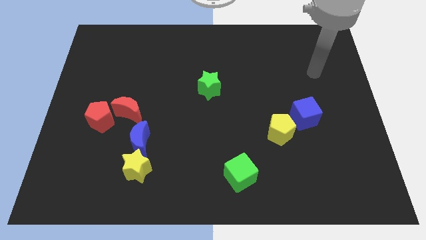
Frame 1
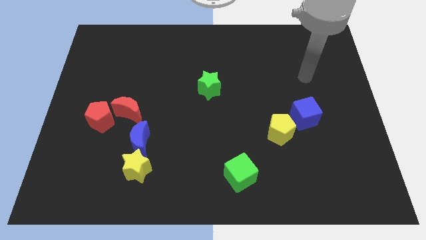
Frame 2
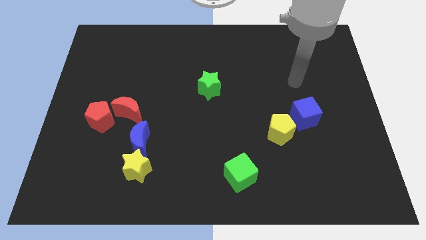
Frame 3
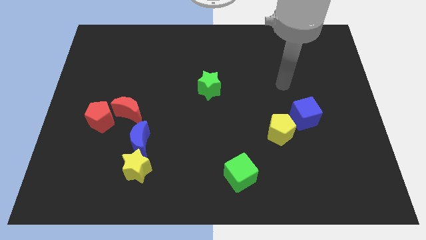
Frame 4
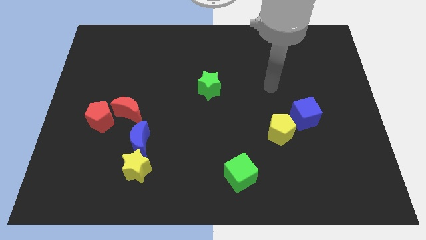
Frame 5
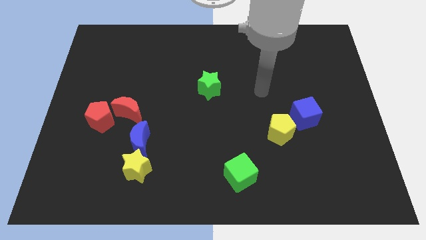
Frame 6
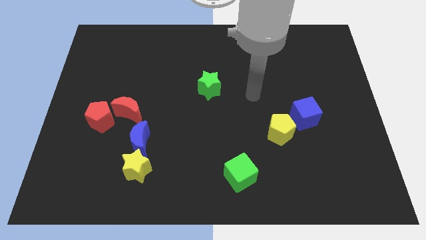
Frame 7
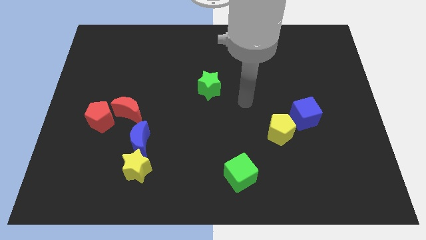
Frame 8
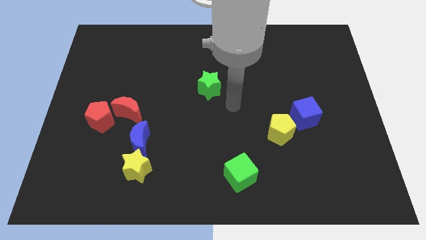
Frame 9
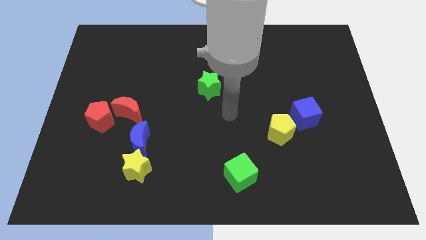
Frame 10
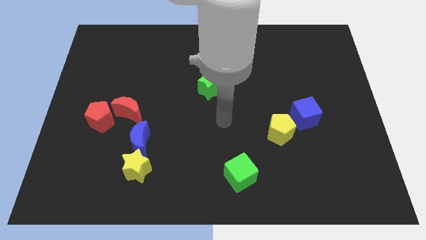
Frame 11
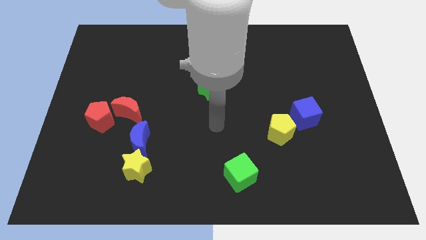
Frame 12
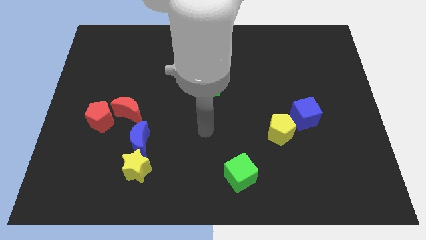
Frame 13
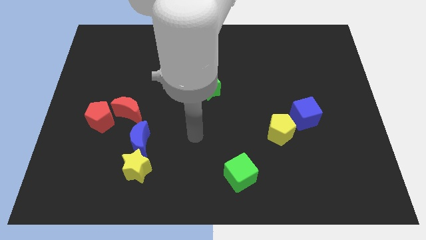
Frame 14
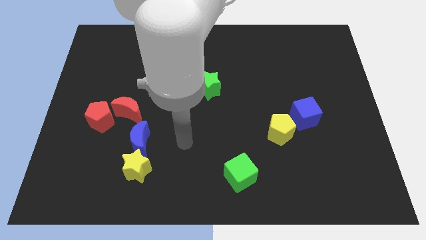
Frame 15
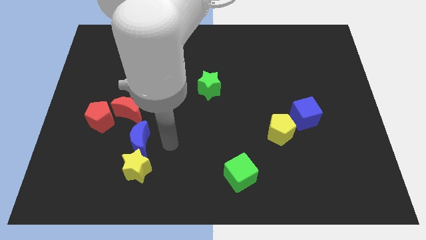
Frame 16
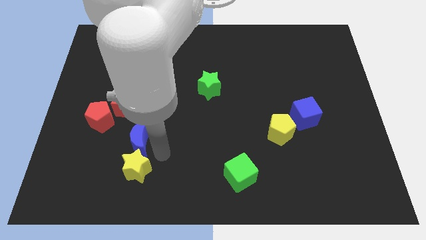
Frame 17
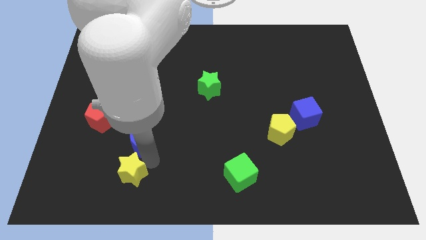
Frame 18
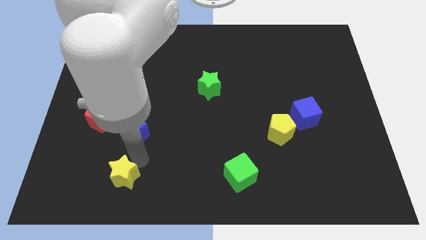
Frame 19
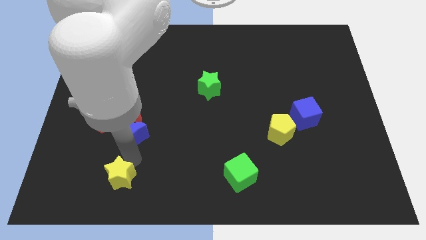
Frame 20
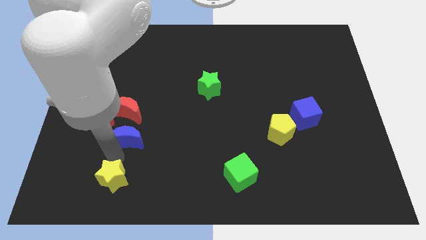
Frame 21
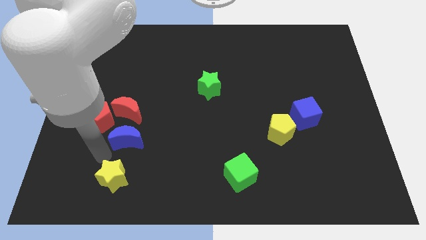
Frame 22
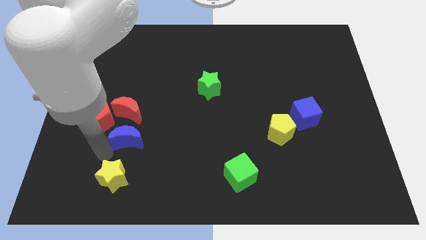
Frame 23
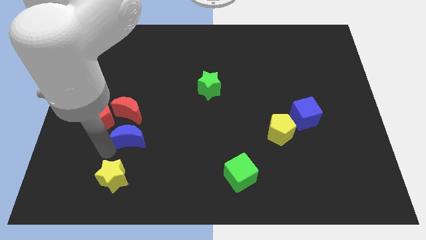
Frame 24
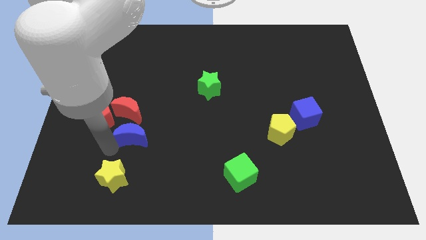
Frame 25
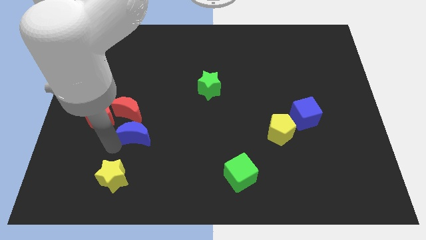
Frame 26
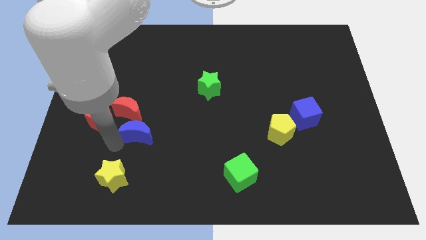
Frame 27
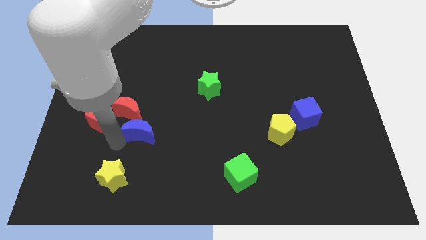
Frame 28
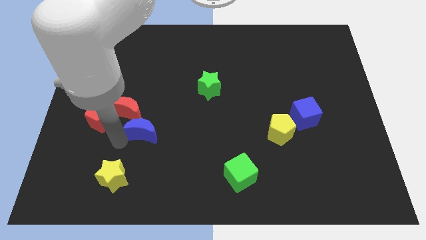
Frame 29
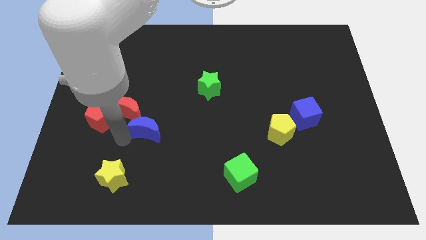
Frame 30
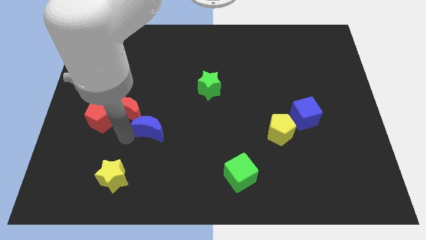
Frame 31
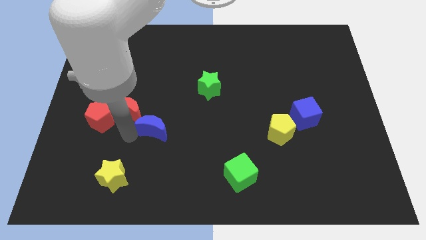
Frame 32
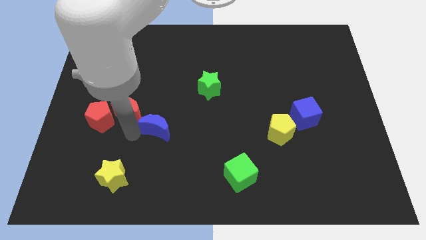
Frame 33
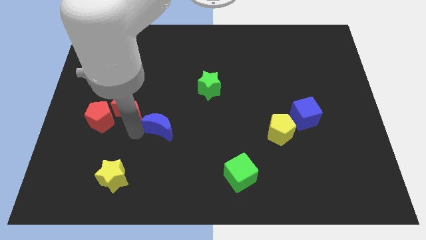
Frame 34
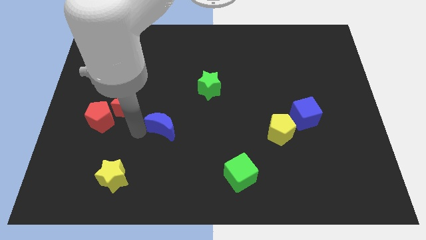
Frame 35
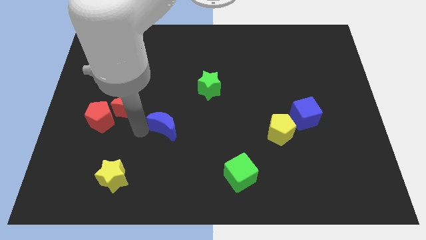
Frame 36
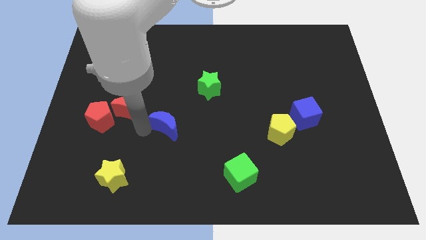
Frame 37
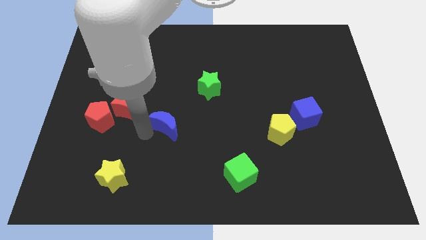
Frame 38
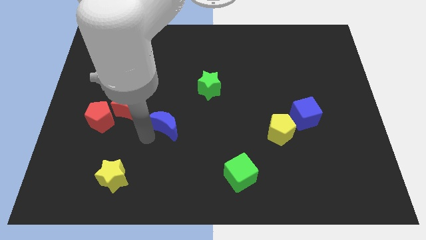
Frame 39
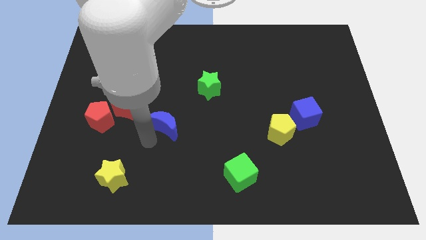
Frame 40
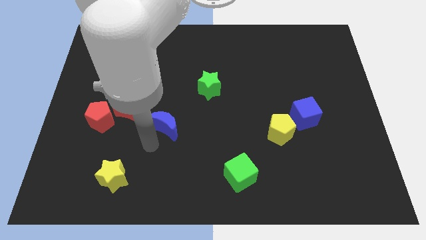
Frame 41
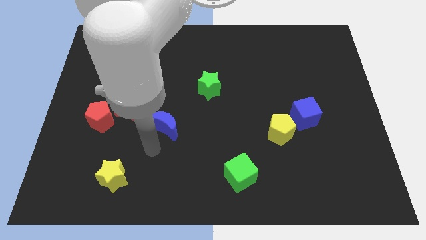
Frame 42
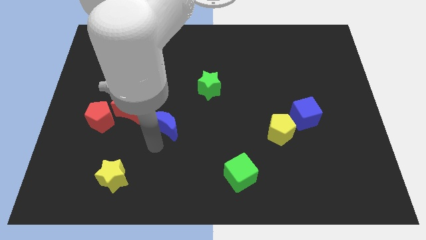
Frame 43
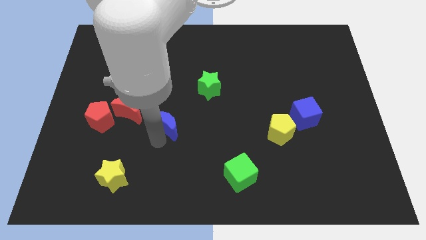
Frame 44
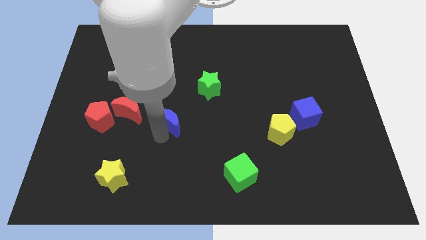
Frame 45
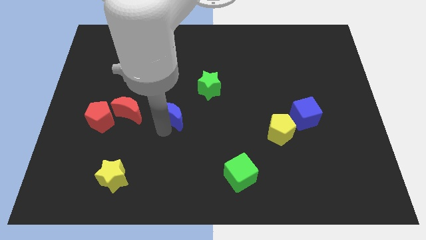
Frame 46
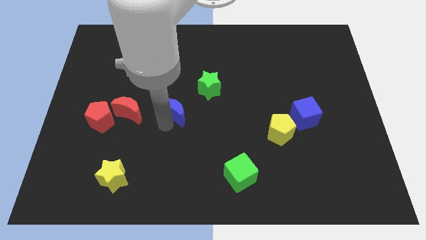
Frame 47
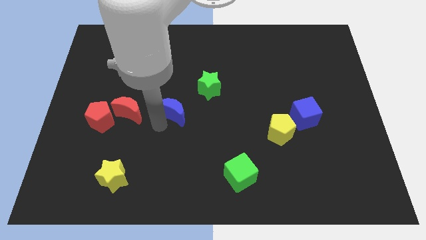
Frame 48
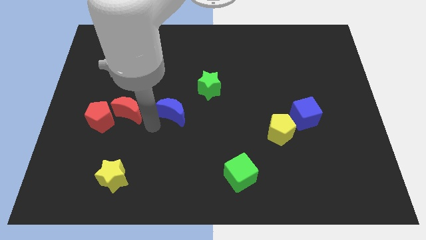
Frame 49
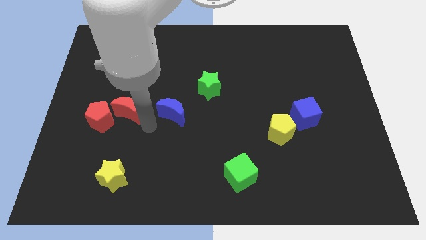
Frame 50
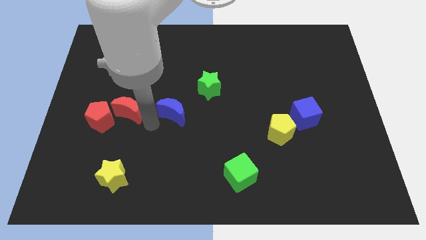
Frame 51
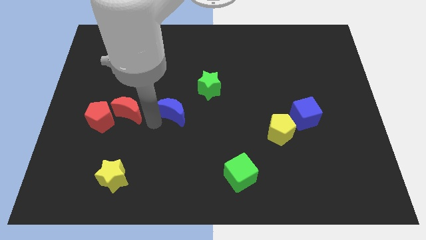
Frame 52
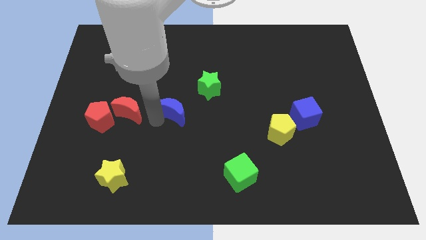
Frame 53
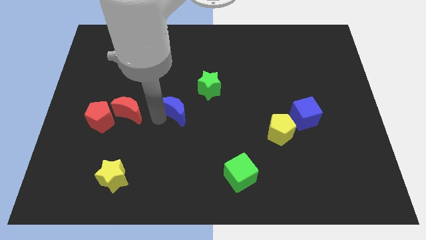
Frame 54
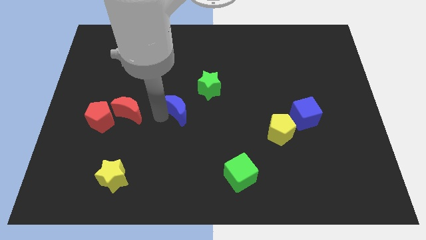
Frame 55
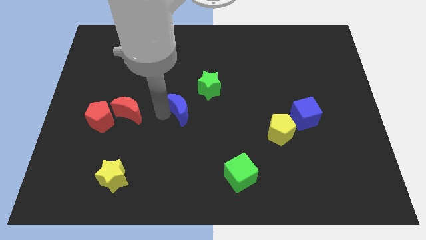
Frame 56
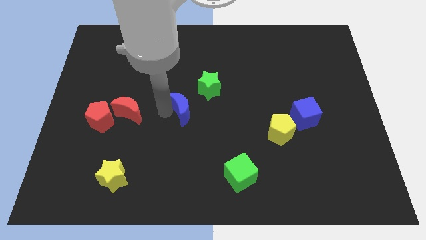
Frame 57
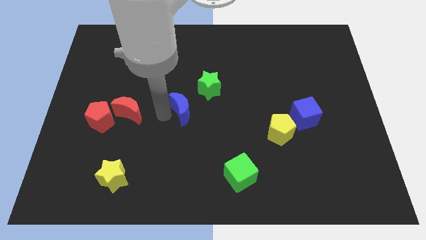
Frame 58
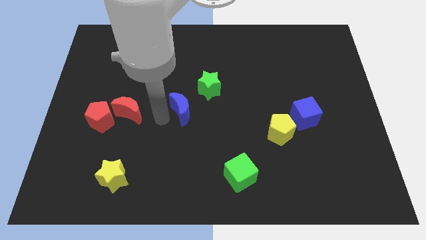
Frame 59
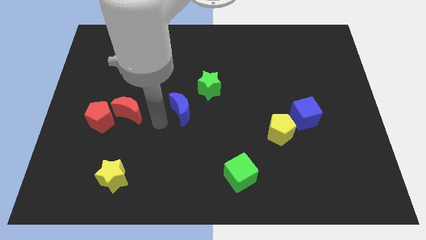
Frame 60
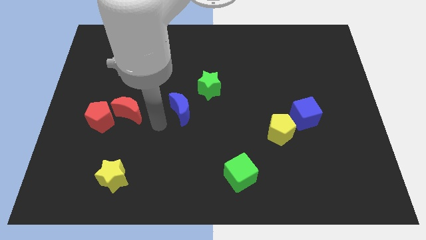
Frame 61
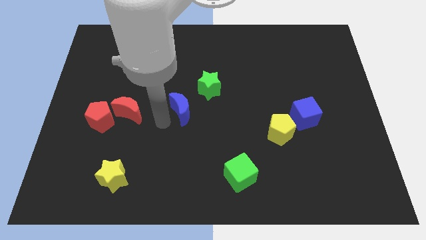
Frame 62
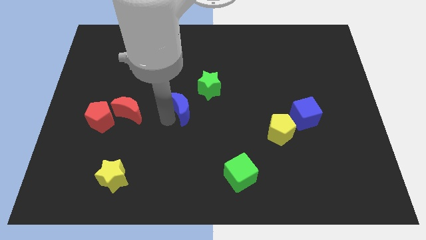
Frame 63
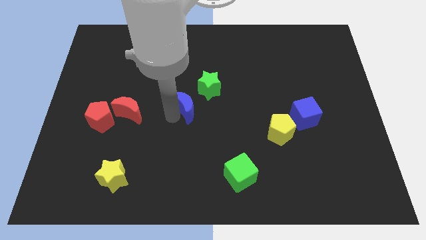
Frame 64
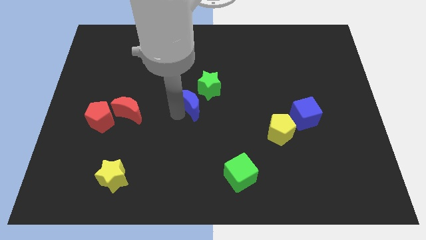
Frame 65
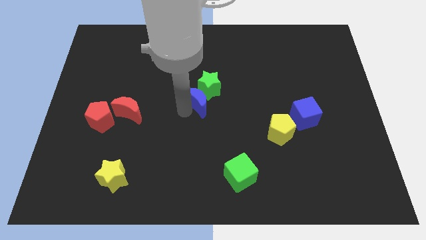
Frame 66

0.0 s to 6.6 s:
push the blue moon close to the green star

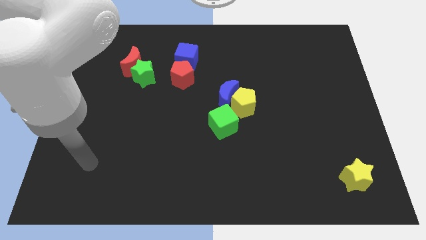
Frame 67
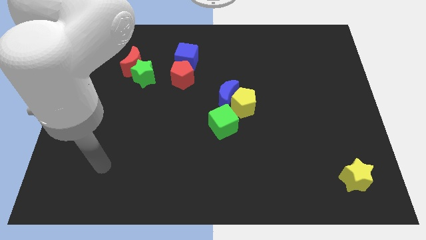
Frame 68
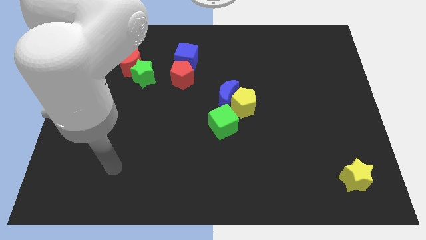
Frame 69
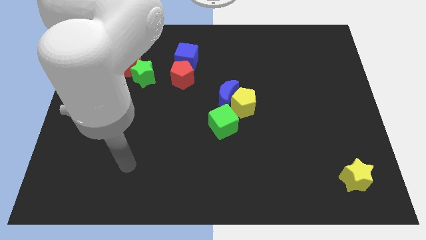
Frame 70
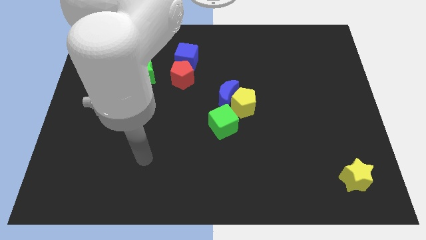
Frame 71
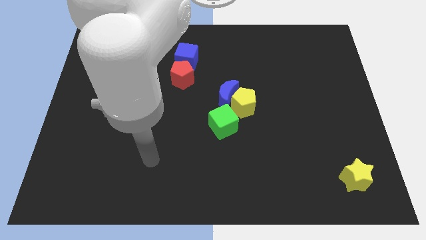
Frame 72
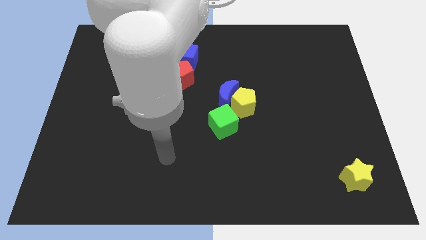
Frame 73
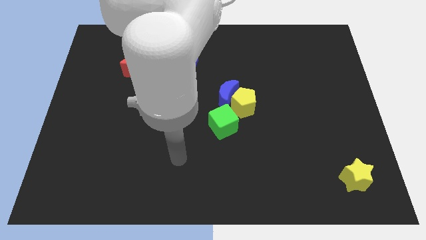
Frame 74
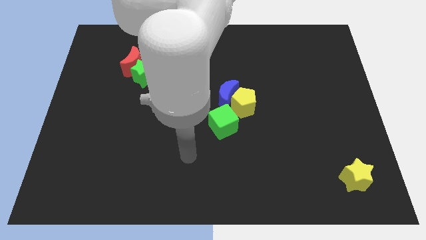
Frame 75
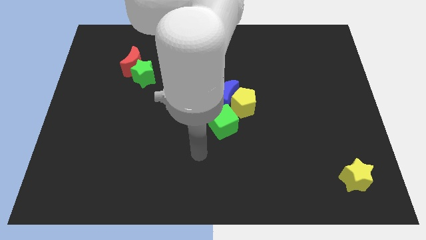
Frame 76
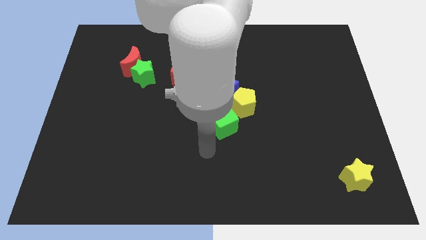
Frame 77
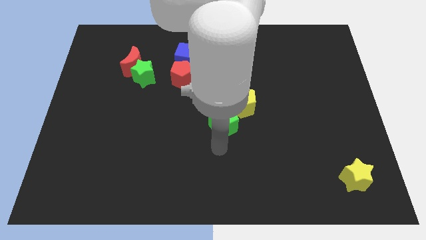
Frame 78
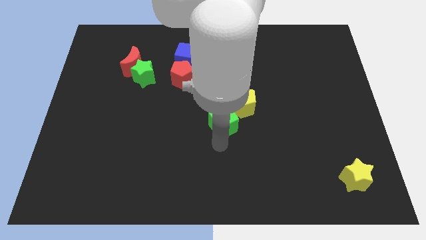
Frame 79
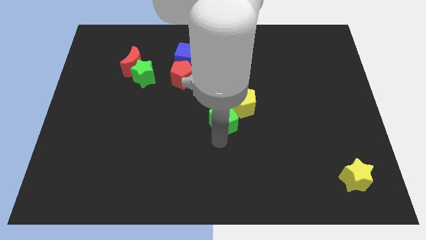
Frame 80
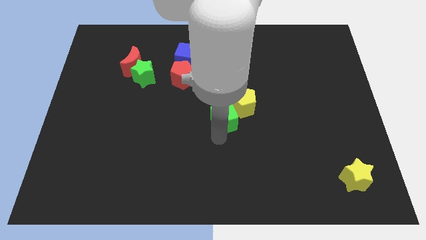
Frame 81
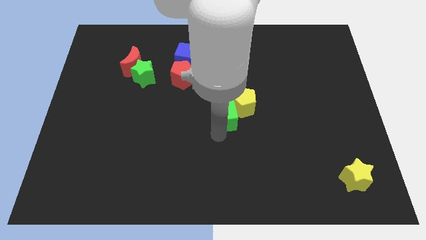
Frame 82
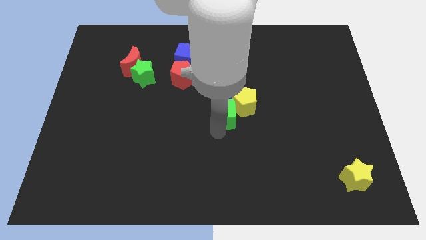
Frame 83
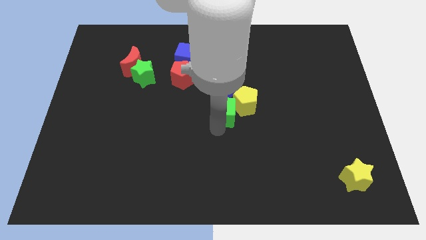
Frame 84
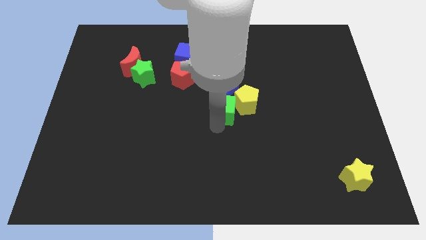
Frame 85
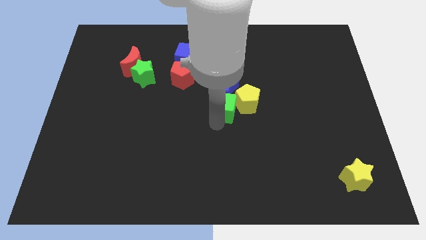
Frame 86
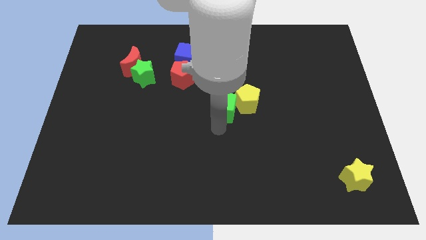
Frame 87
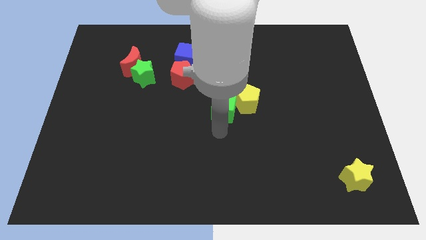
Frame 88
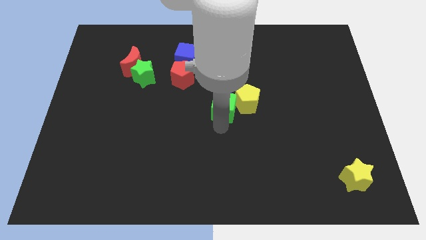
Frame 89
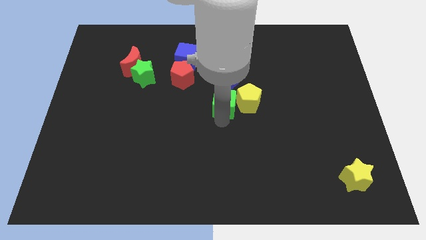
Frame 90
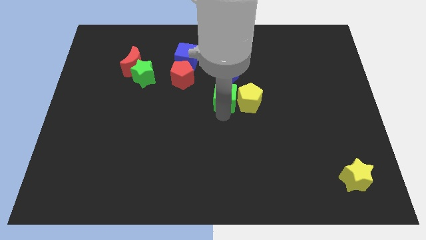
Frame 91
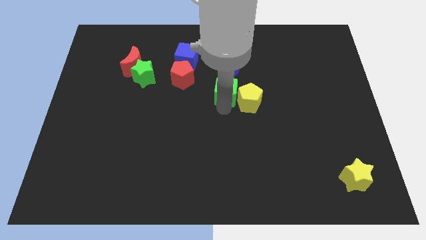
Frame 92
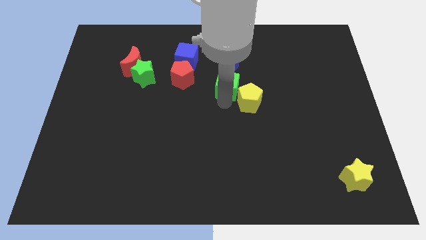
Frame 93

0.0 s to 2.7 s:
push the green cube next to the blue moon
